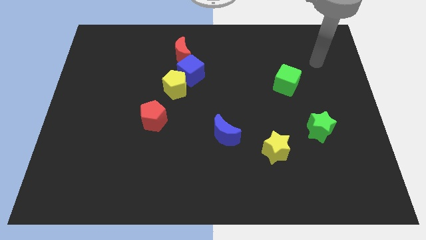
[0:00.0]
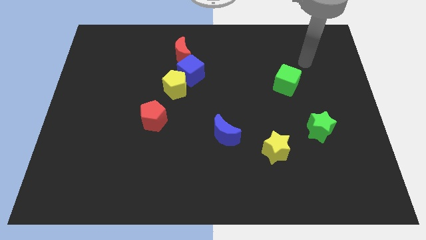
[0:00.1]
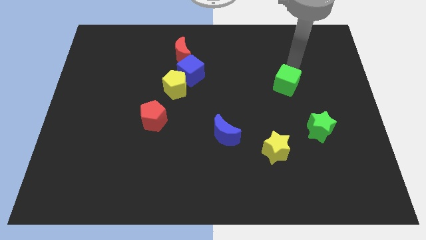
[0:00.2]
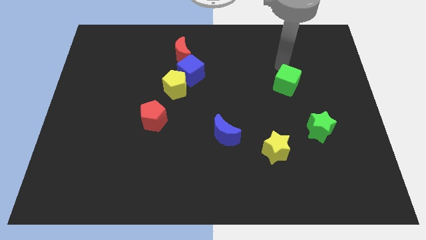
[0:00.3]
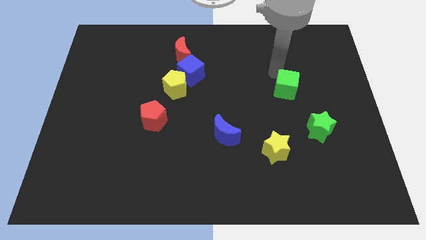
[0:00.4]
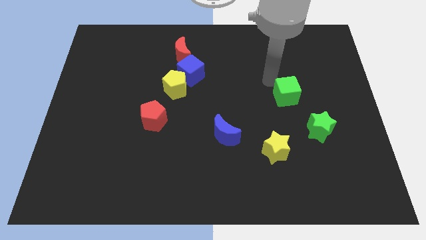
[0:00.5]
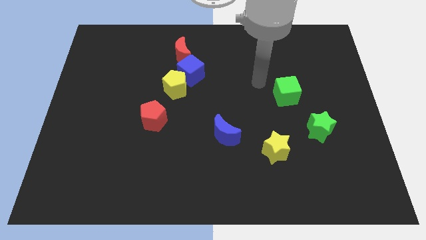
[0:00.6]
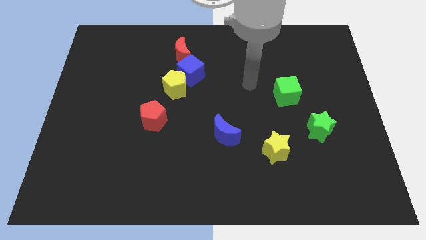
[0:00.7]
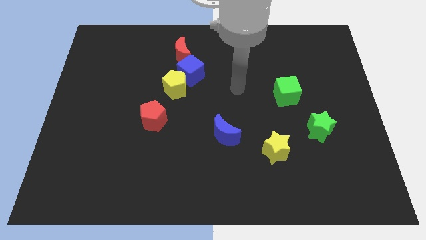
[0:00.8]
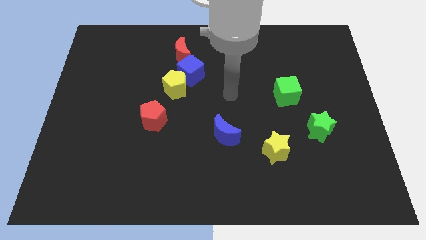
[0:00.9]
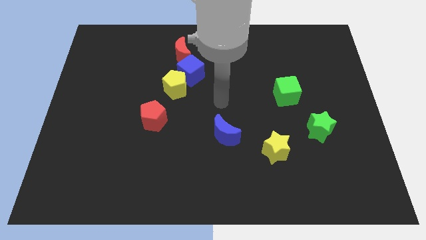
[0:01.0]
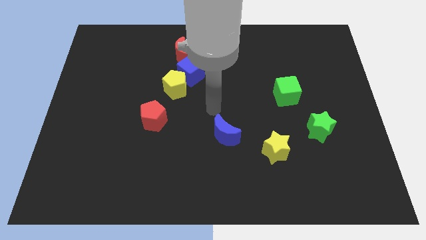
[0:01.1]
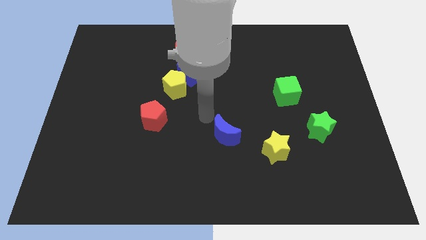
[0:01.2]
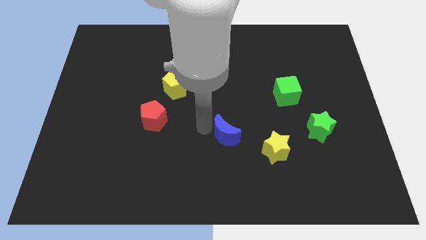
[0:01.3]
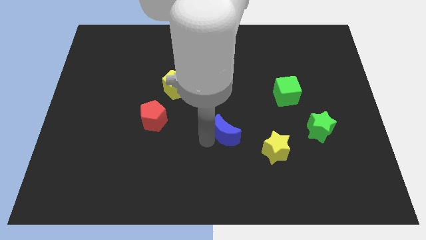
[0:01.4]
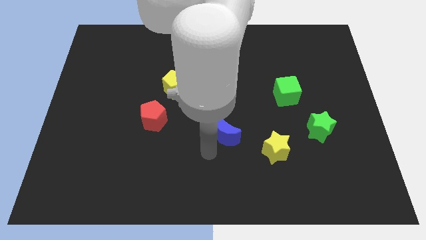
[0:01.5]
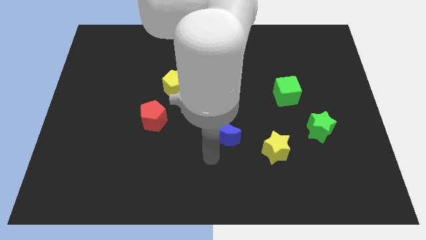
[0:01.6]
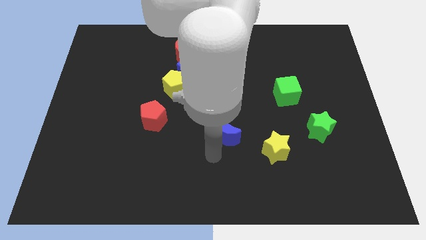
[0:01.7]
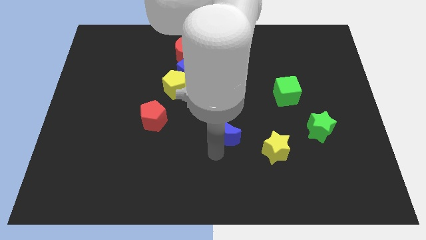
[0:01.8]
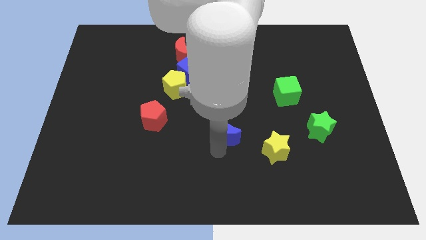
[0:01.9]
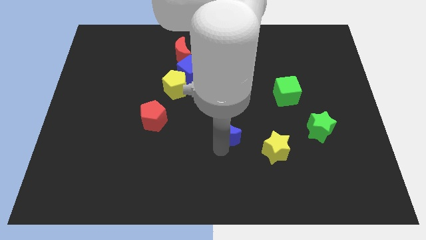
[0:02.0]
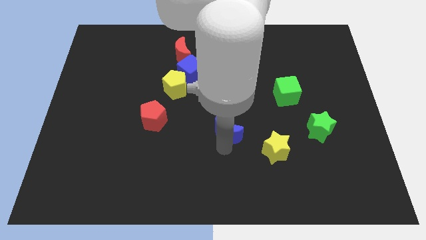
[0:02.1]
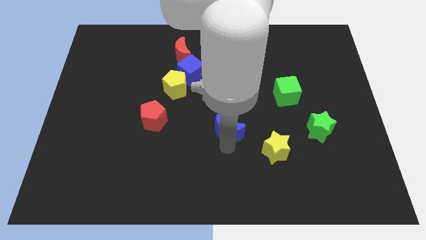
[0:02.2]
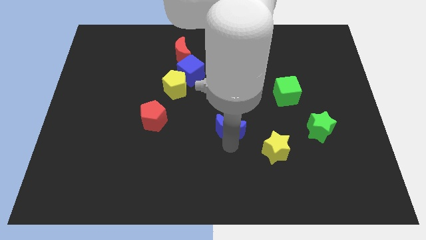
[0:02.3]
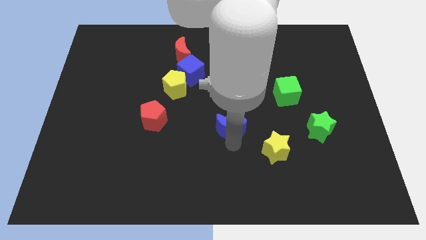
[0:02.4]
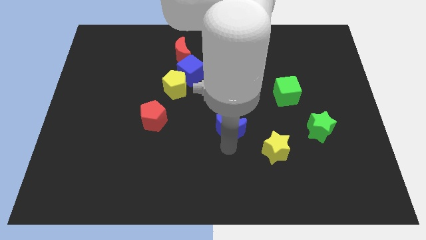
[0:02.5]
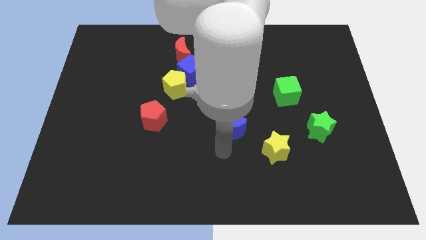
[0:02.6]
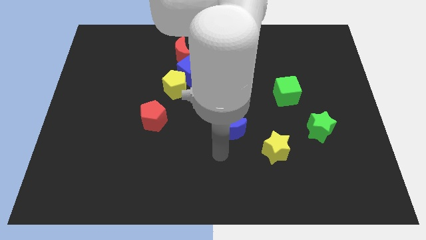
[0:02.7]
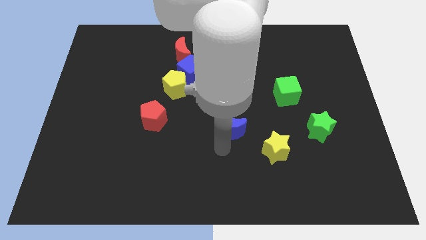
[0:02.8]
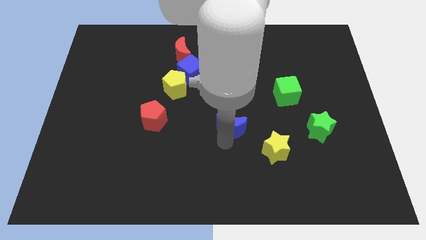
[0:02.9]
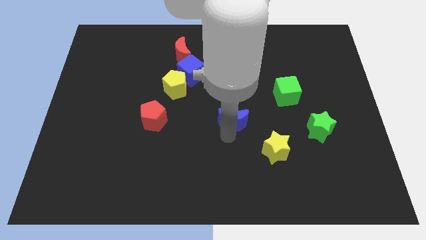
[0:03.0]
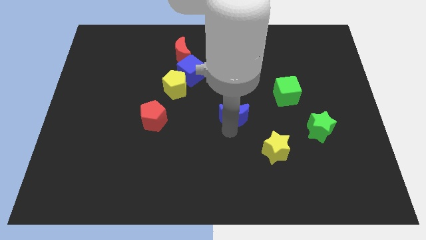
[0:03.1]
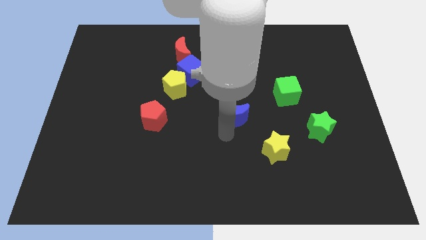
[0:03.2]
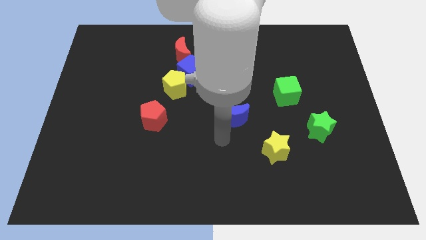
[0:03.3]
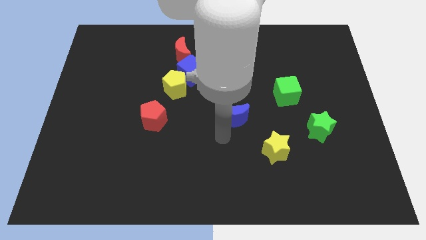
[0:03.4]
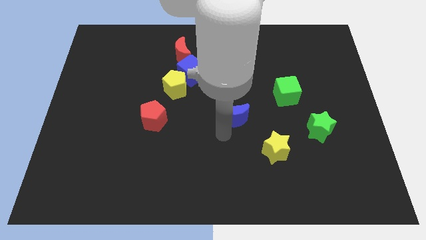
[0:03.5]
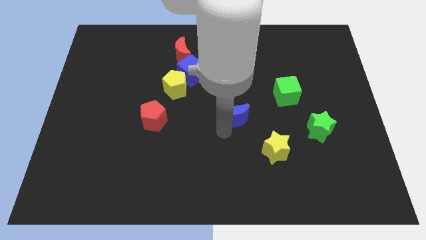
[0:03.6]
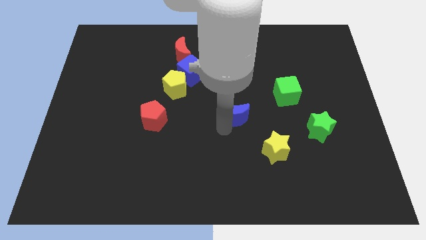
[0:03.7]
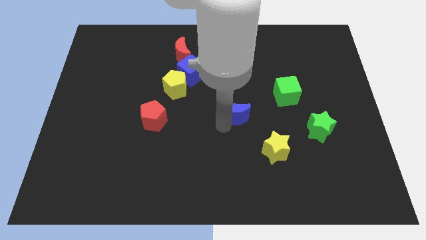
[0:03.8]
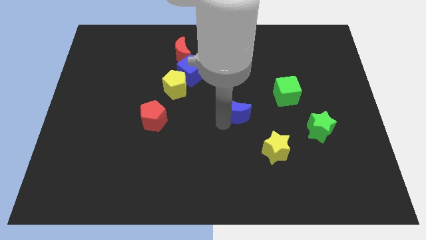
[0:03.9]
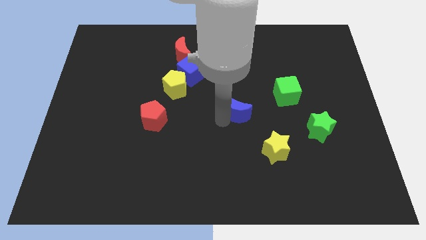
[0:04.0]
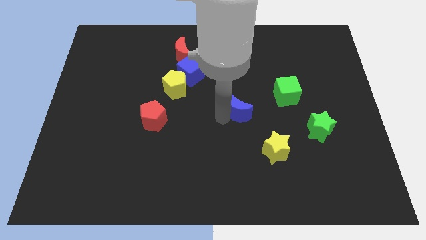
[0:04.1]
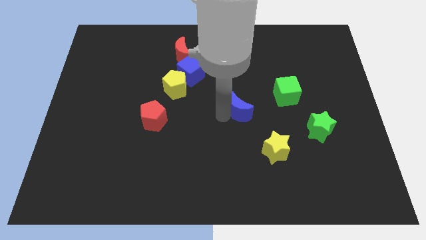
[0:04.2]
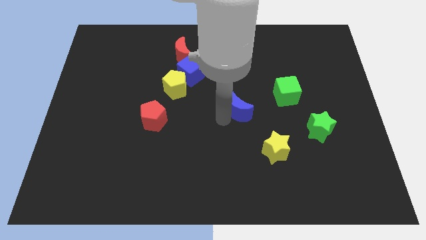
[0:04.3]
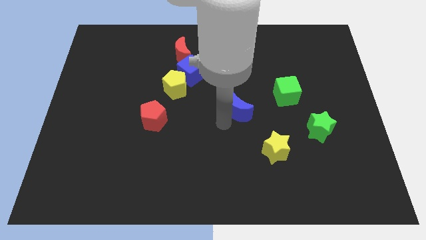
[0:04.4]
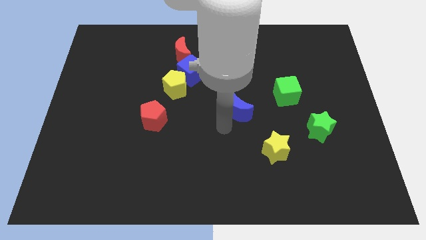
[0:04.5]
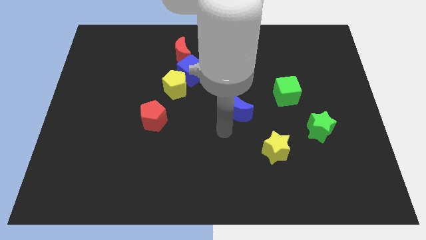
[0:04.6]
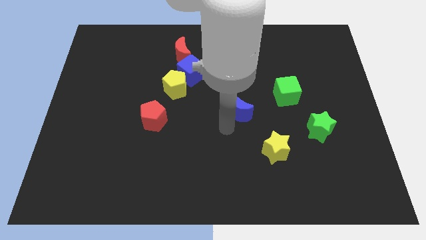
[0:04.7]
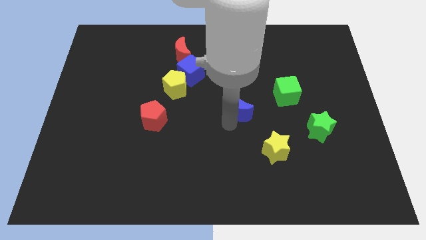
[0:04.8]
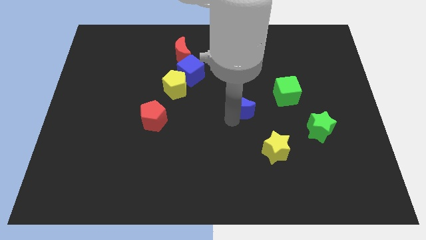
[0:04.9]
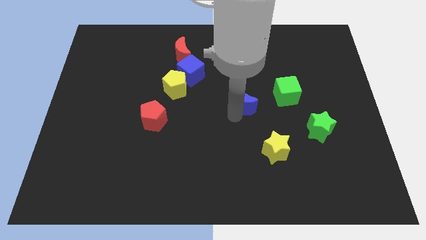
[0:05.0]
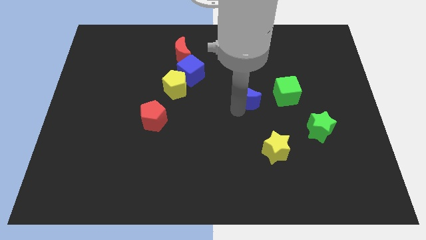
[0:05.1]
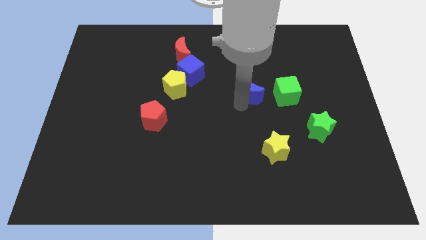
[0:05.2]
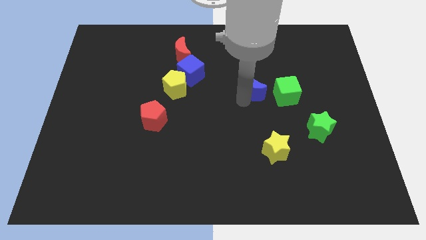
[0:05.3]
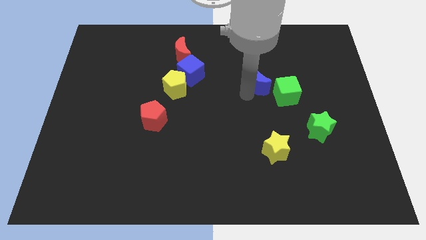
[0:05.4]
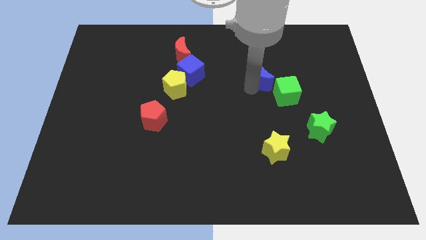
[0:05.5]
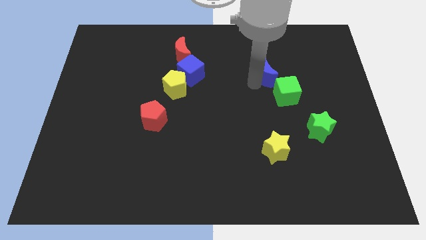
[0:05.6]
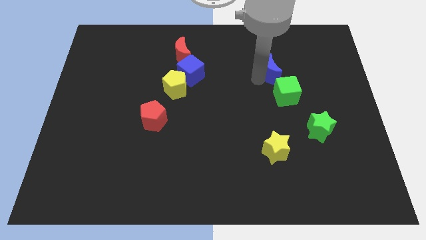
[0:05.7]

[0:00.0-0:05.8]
move the blue moon upwards and right diagonally

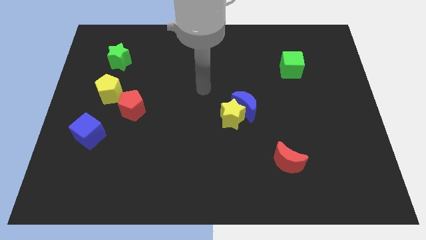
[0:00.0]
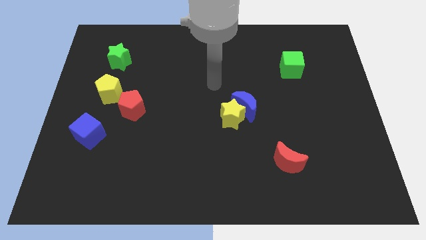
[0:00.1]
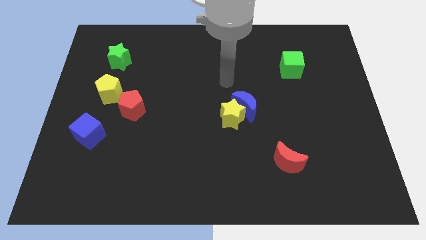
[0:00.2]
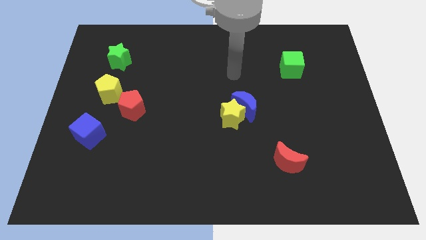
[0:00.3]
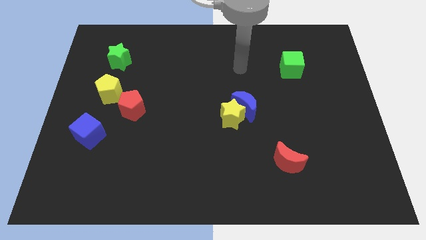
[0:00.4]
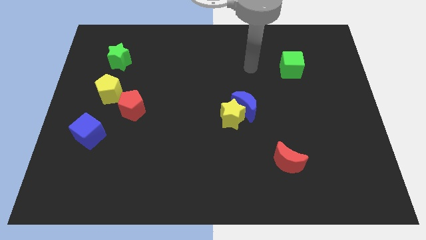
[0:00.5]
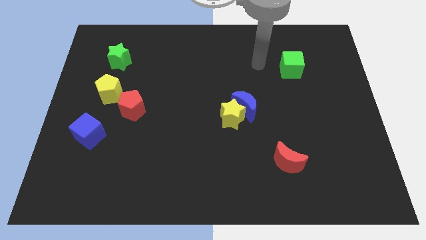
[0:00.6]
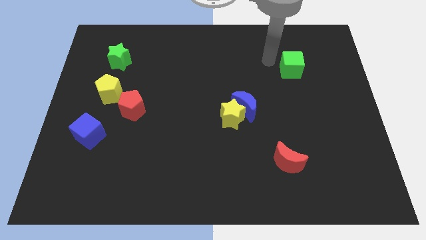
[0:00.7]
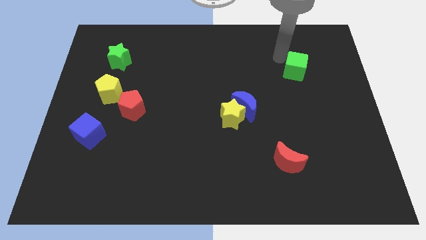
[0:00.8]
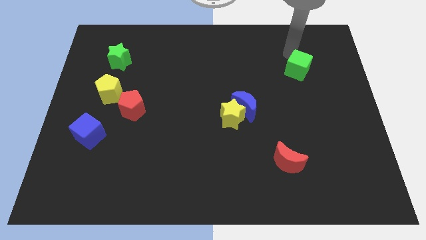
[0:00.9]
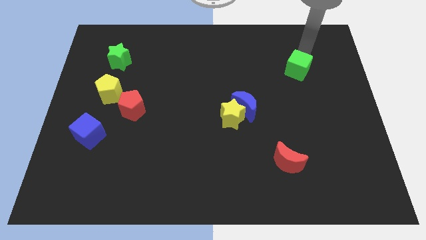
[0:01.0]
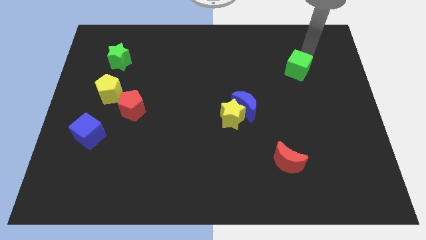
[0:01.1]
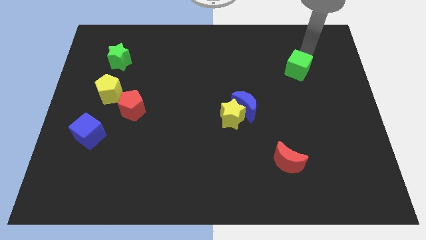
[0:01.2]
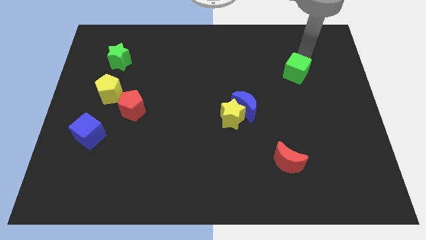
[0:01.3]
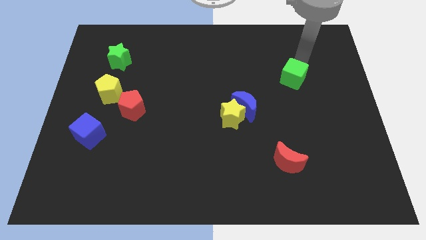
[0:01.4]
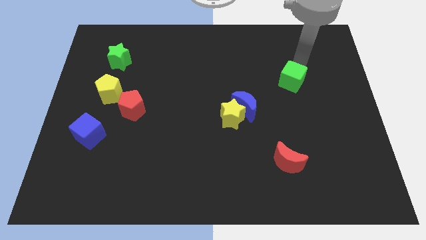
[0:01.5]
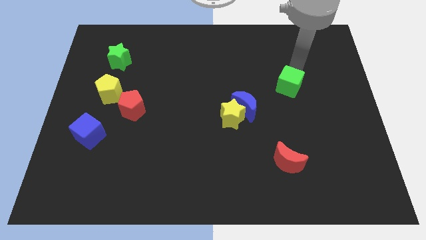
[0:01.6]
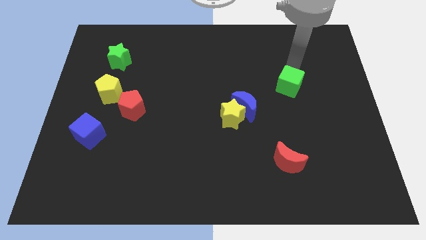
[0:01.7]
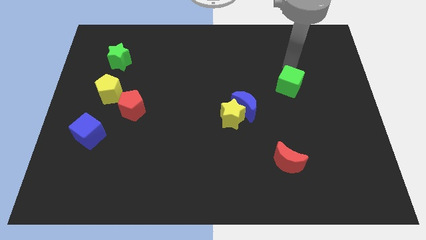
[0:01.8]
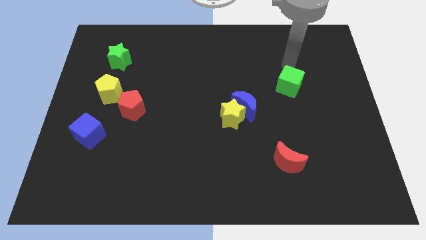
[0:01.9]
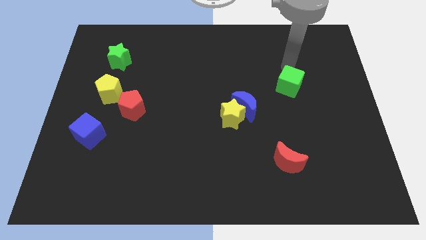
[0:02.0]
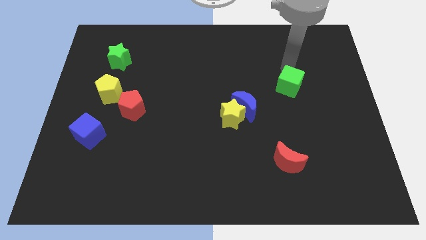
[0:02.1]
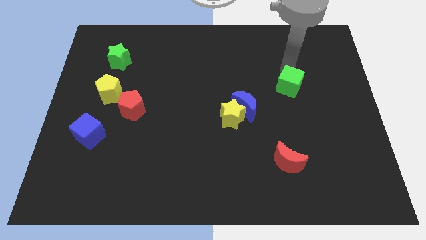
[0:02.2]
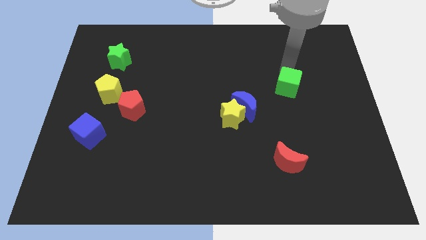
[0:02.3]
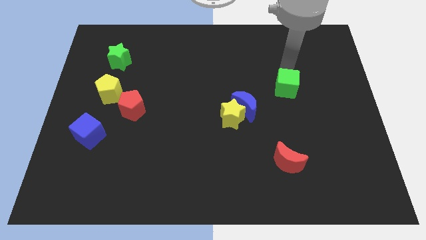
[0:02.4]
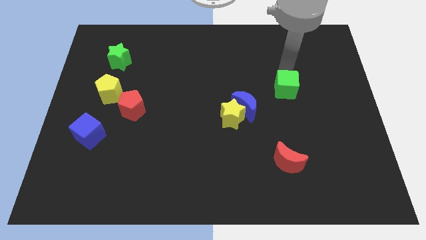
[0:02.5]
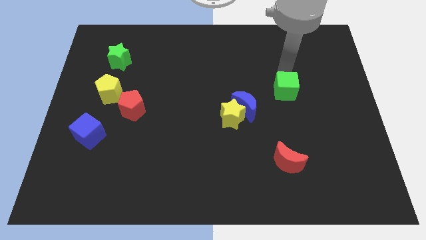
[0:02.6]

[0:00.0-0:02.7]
slightly slide the green cube downwards
